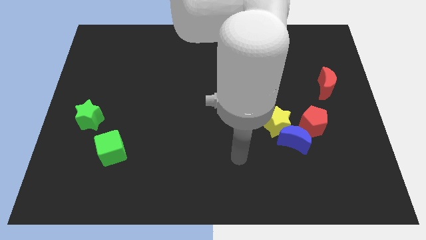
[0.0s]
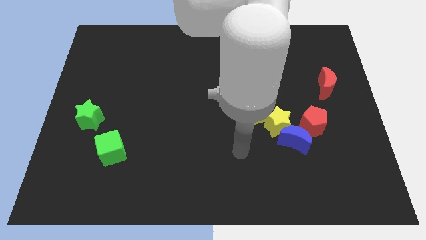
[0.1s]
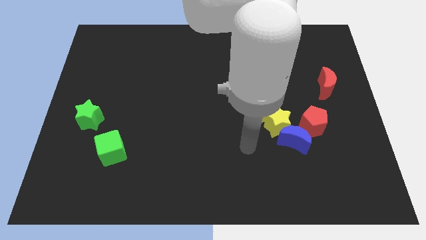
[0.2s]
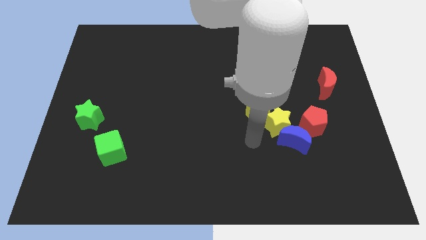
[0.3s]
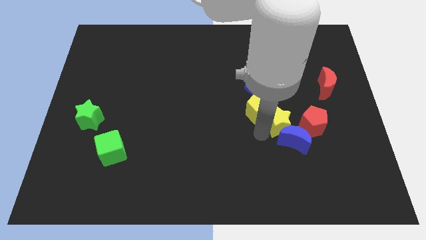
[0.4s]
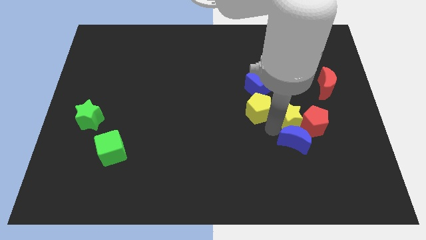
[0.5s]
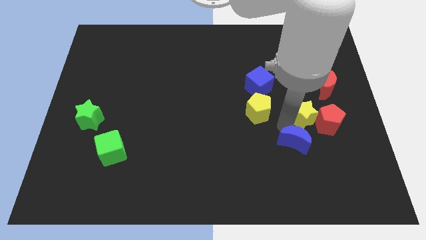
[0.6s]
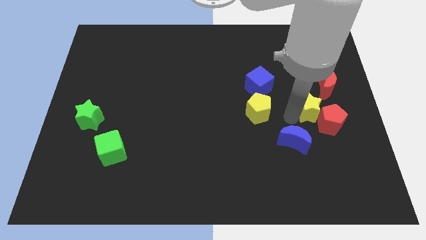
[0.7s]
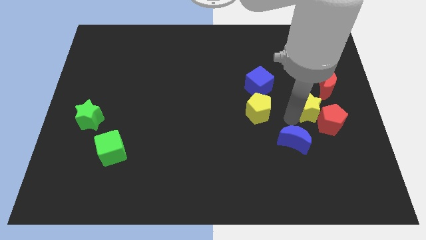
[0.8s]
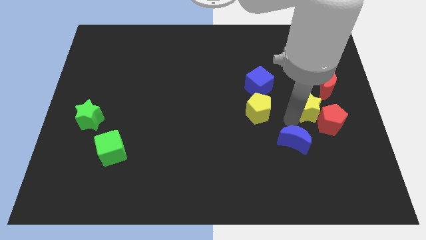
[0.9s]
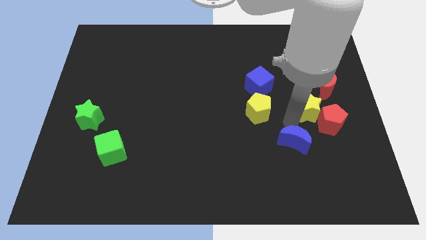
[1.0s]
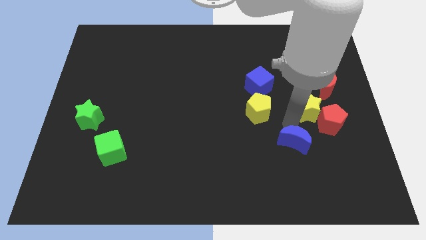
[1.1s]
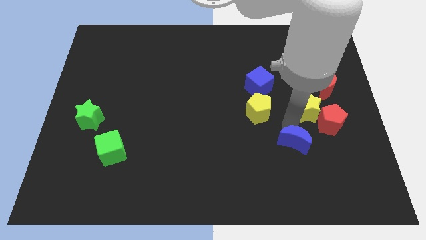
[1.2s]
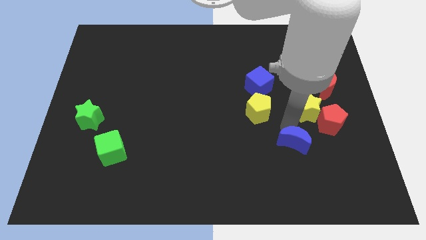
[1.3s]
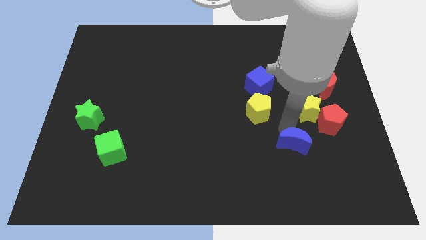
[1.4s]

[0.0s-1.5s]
separate the blue moon from the yellow star and red pentagon

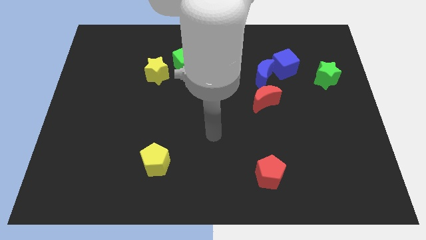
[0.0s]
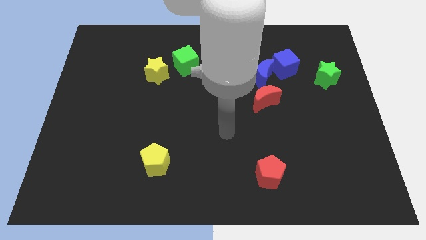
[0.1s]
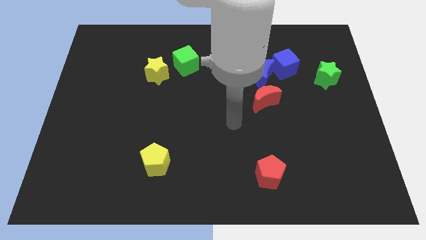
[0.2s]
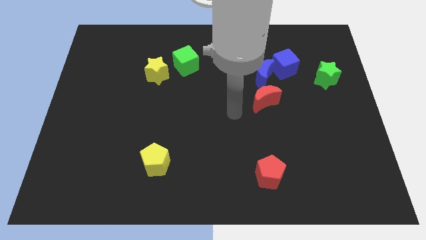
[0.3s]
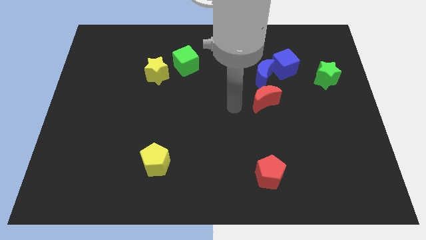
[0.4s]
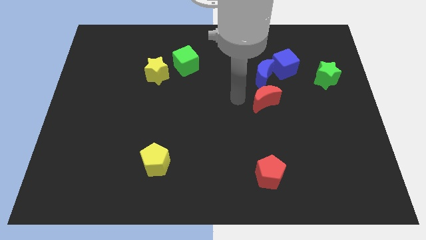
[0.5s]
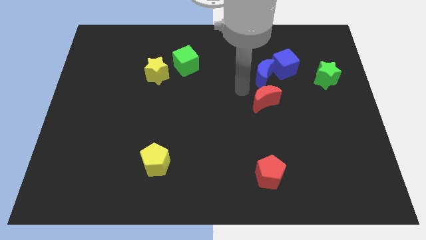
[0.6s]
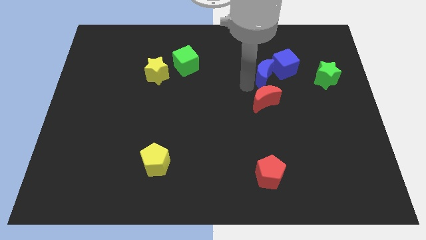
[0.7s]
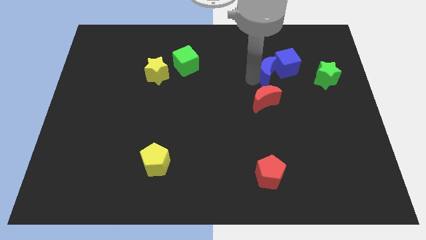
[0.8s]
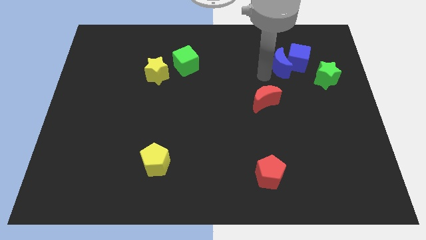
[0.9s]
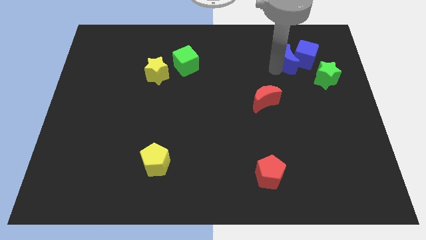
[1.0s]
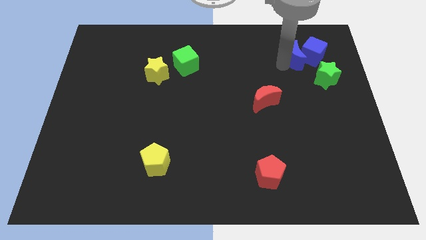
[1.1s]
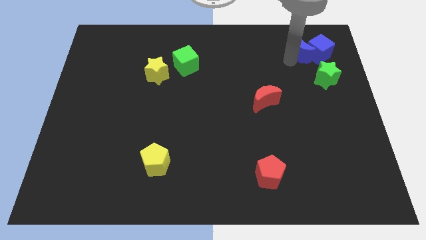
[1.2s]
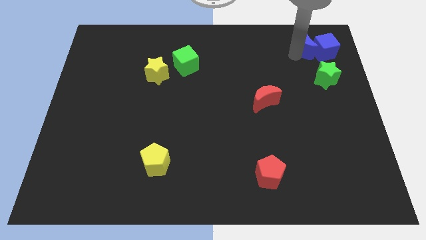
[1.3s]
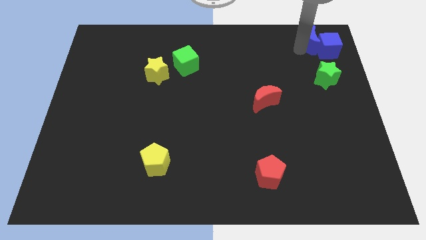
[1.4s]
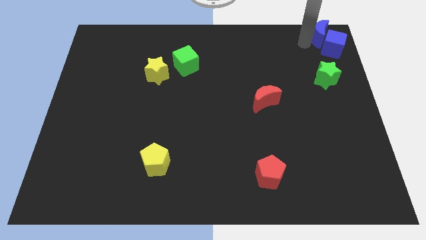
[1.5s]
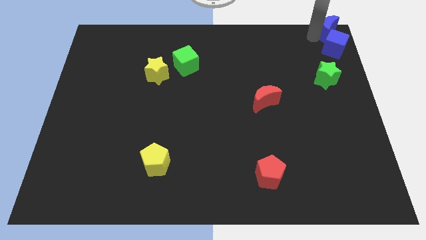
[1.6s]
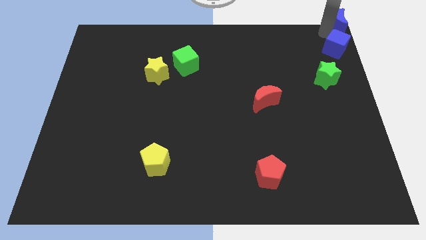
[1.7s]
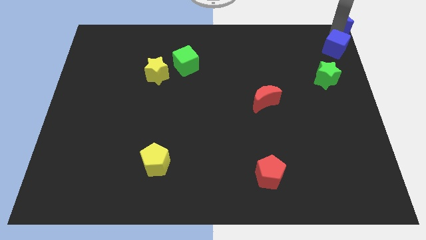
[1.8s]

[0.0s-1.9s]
separate the blue cube from the blue moon

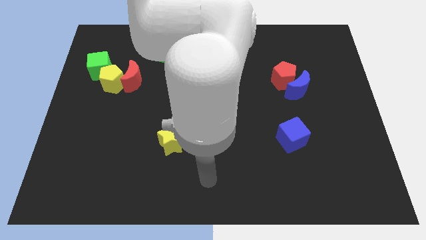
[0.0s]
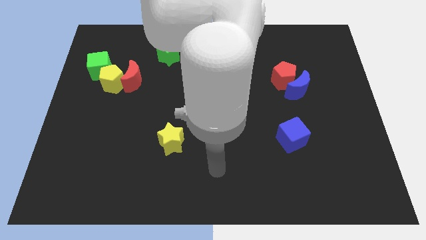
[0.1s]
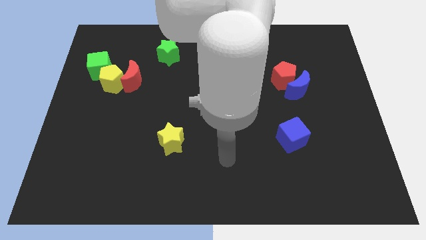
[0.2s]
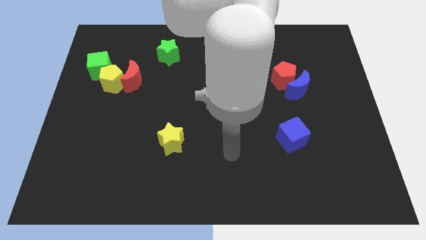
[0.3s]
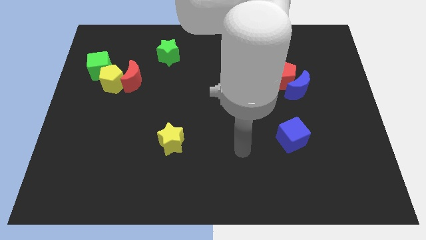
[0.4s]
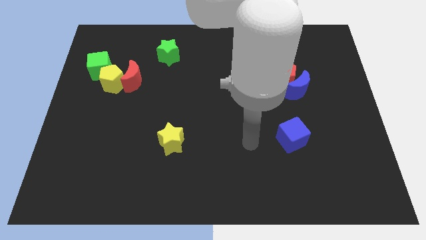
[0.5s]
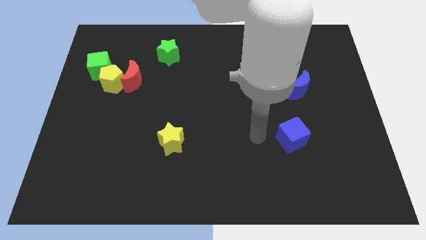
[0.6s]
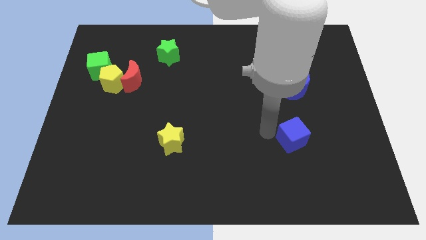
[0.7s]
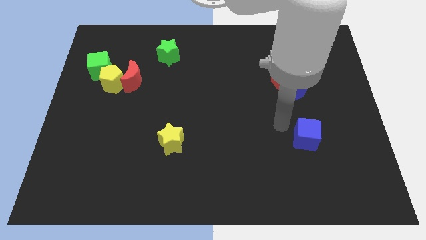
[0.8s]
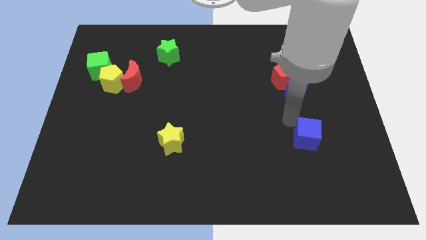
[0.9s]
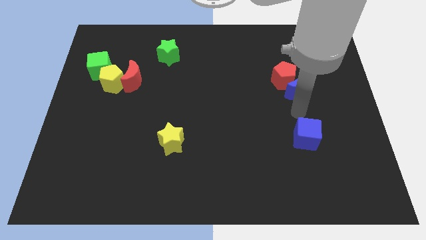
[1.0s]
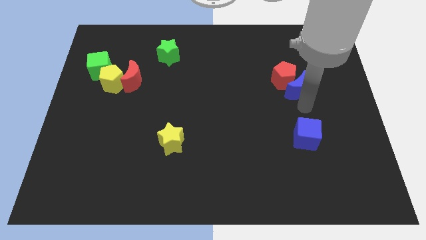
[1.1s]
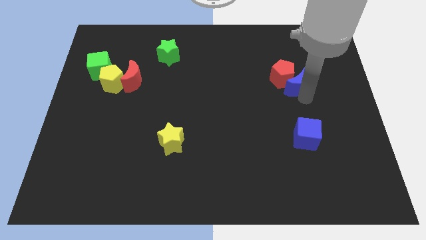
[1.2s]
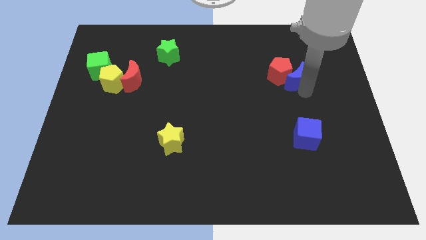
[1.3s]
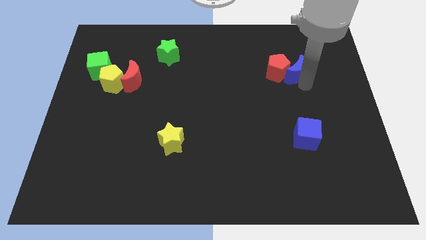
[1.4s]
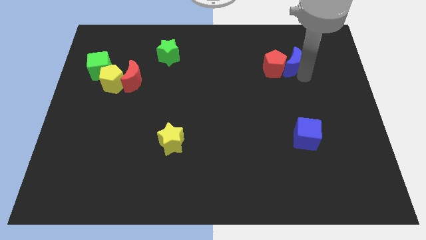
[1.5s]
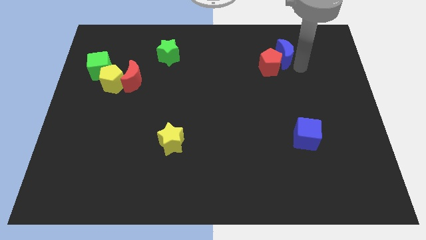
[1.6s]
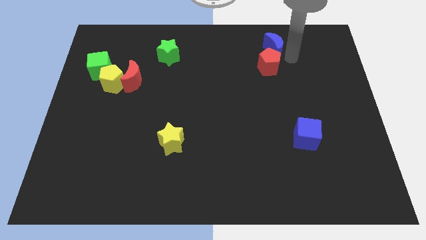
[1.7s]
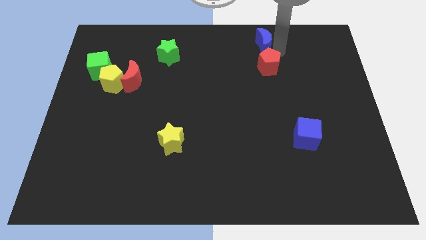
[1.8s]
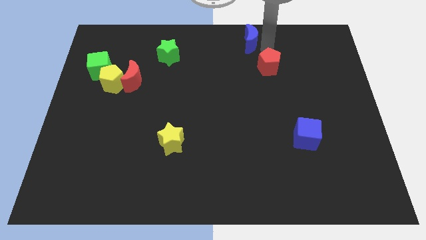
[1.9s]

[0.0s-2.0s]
pull the red pentagon apart from the blue moon

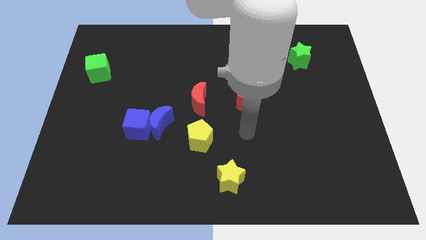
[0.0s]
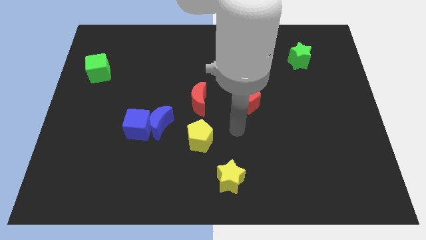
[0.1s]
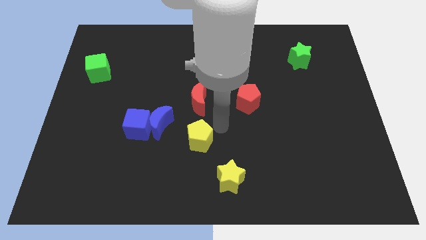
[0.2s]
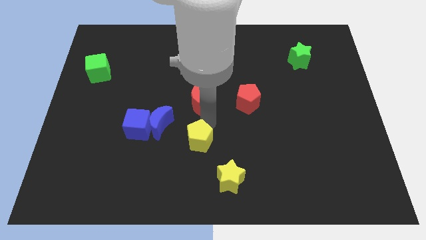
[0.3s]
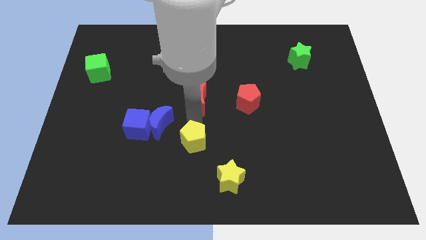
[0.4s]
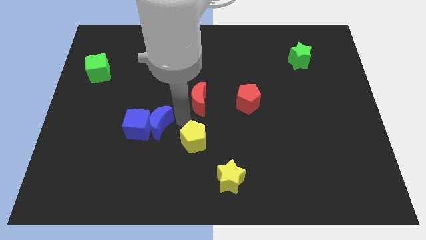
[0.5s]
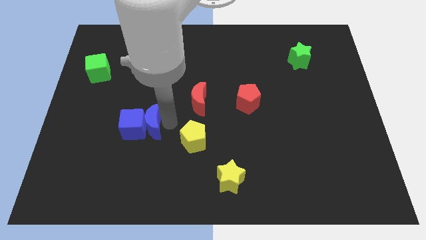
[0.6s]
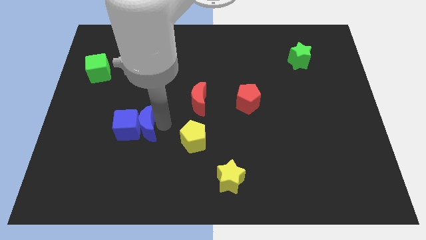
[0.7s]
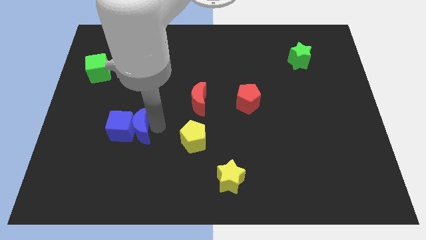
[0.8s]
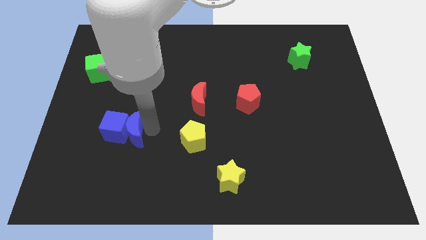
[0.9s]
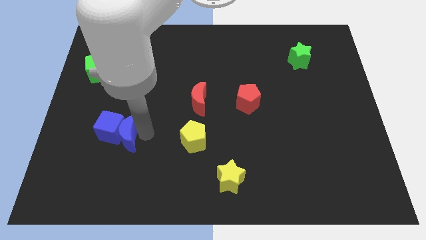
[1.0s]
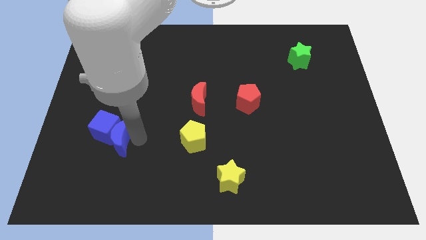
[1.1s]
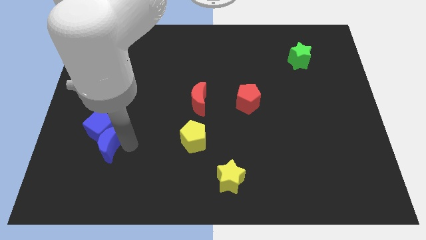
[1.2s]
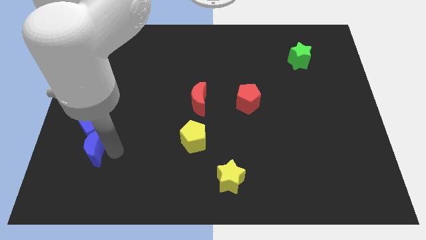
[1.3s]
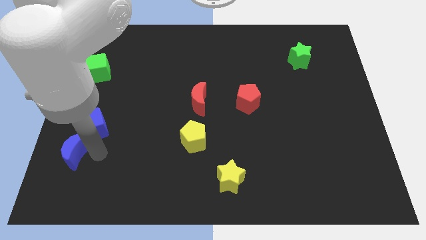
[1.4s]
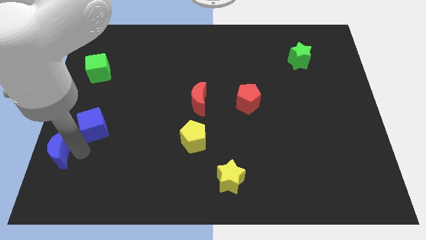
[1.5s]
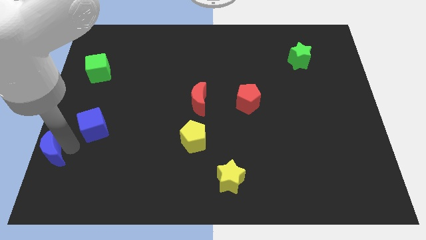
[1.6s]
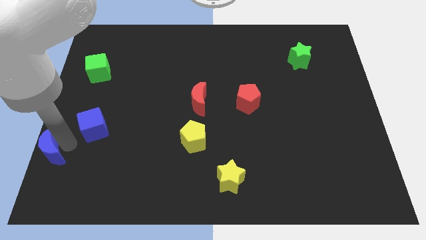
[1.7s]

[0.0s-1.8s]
pull the blue cube apart from the blue moon

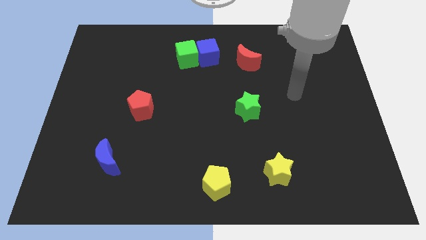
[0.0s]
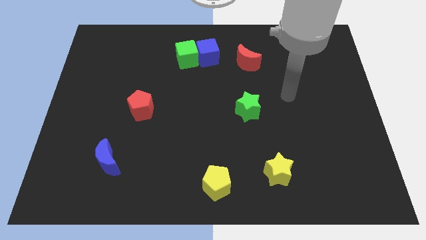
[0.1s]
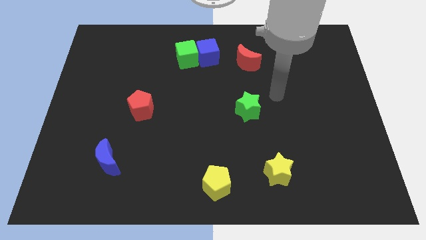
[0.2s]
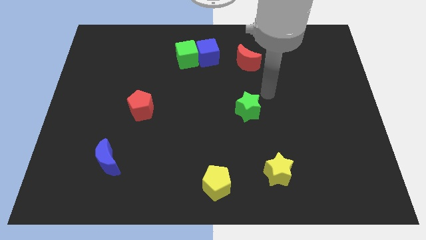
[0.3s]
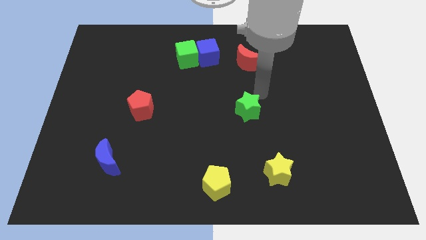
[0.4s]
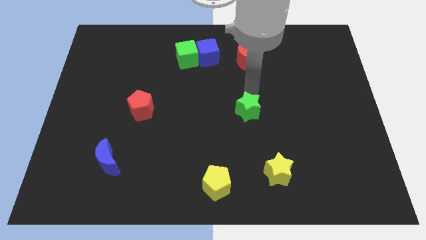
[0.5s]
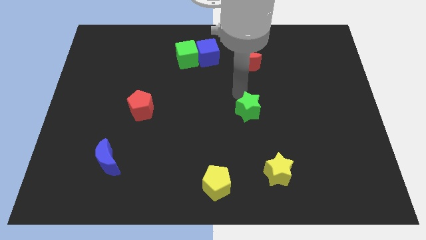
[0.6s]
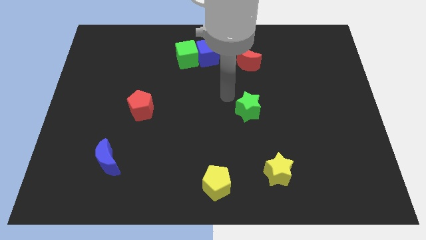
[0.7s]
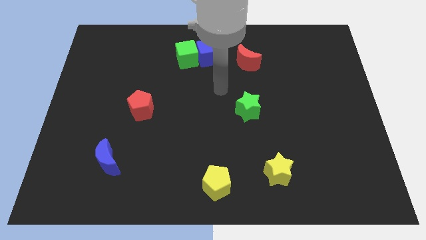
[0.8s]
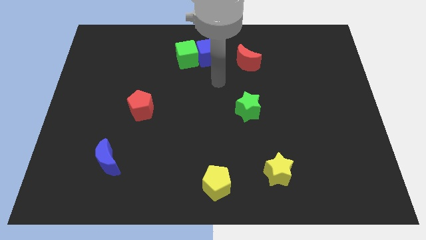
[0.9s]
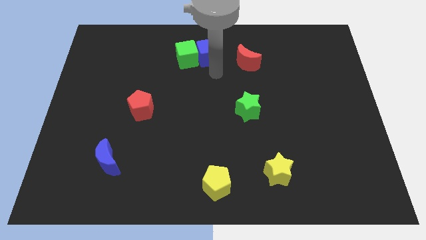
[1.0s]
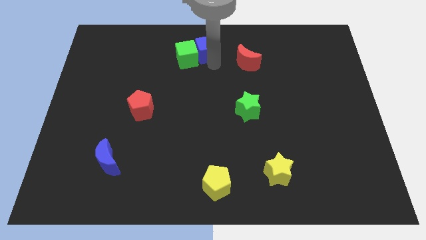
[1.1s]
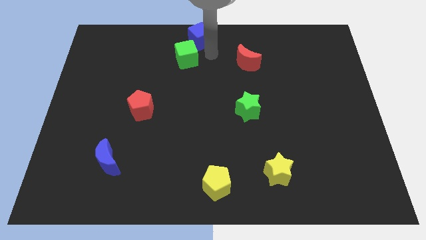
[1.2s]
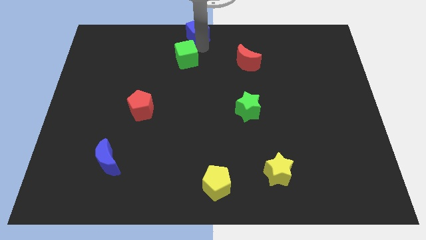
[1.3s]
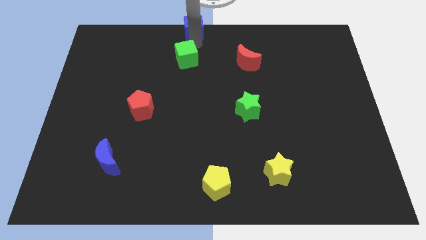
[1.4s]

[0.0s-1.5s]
move the green cube away from the blue cube

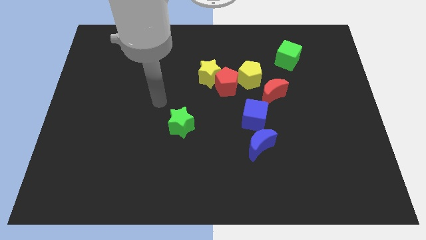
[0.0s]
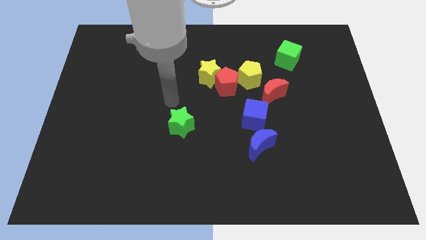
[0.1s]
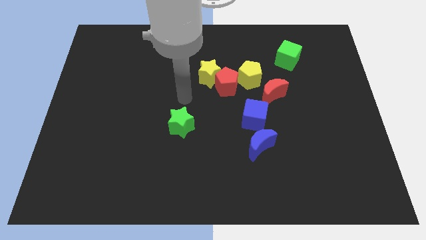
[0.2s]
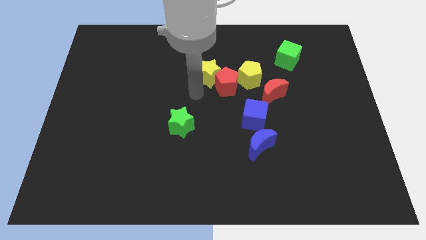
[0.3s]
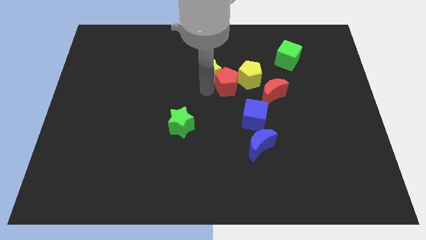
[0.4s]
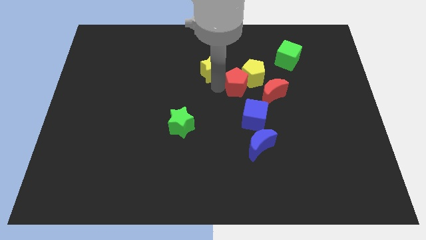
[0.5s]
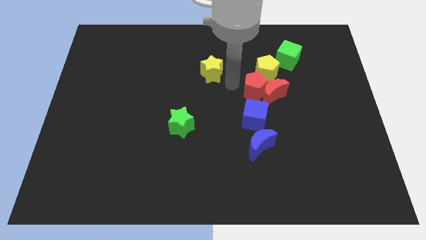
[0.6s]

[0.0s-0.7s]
pull the yellow star apart from the red pentagon
